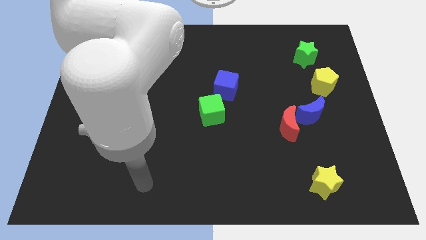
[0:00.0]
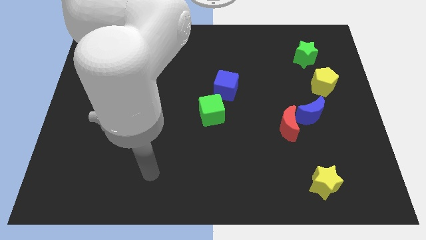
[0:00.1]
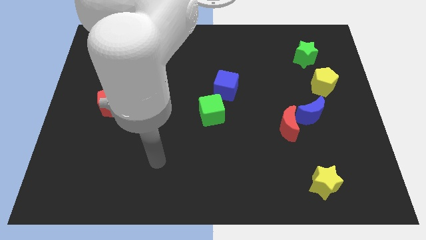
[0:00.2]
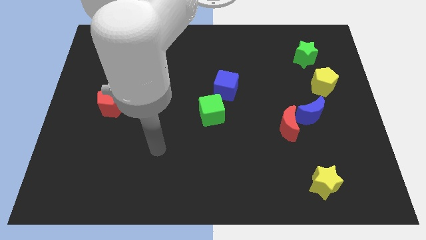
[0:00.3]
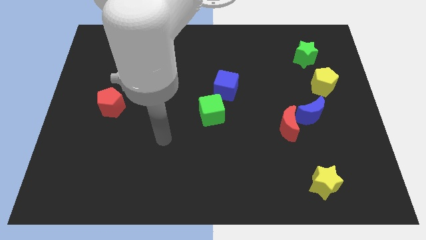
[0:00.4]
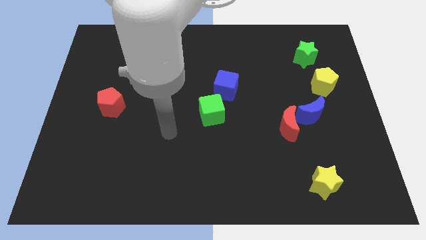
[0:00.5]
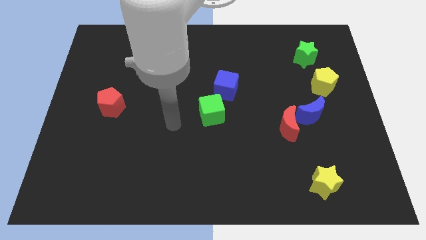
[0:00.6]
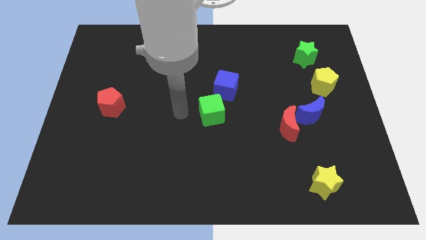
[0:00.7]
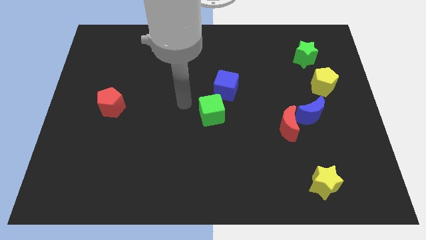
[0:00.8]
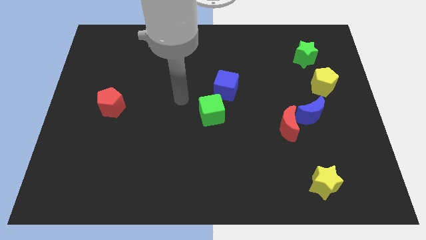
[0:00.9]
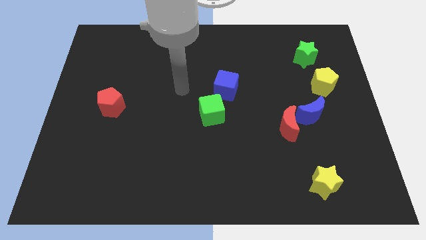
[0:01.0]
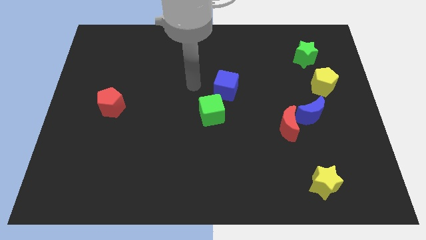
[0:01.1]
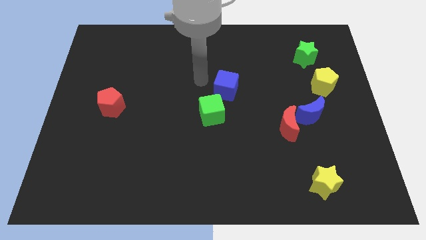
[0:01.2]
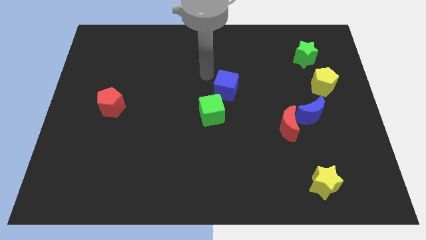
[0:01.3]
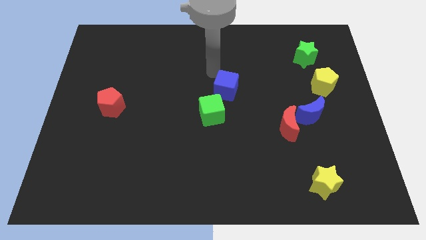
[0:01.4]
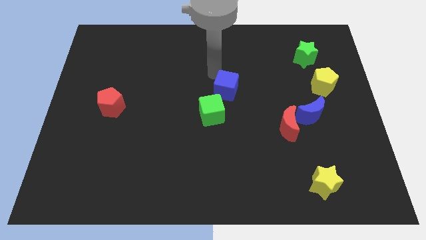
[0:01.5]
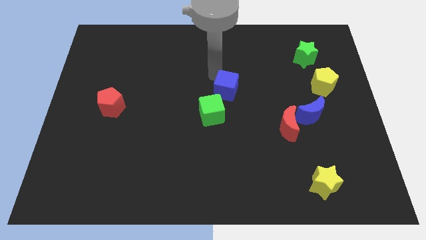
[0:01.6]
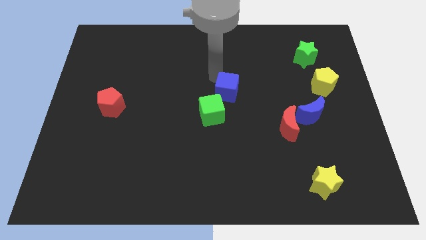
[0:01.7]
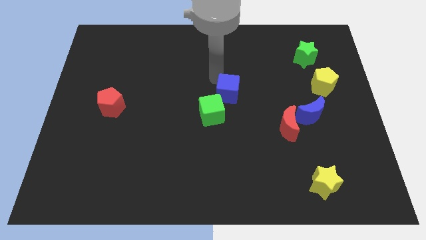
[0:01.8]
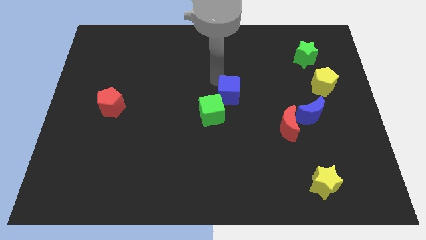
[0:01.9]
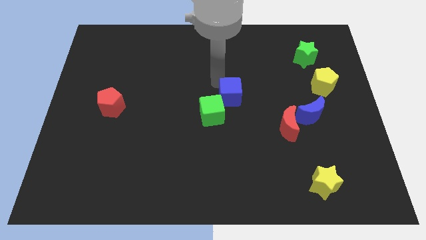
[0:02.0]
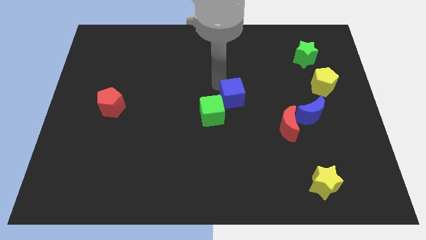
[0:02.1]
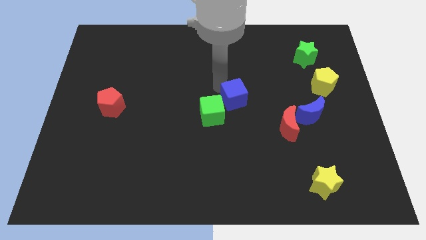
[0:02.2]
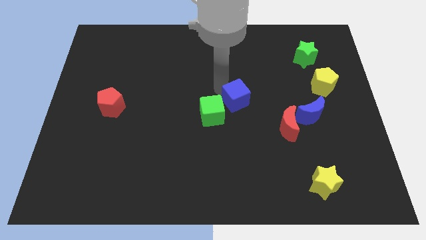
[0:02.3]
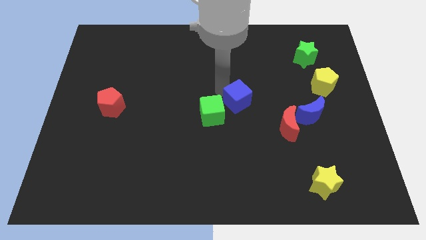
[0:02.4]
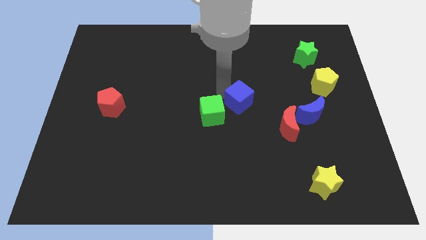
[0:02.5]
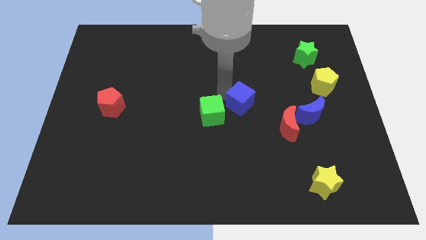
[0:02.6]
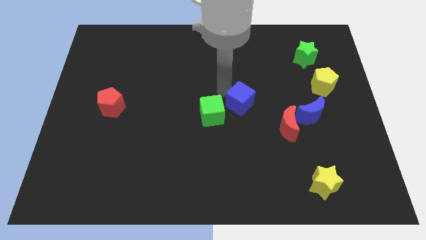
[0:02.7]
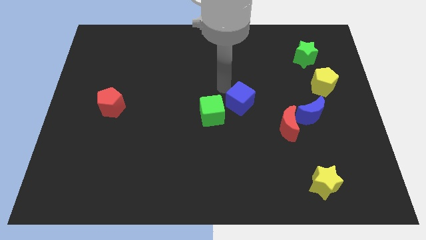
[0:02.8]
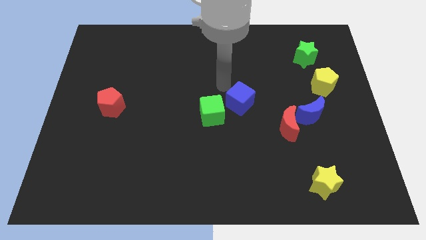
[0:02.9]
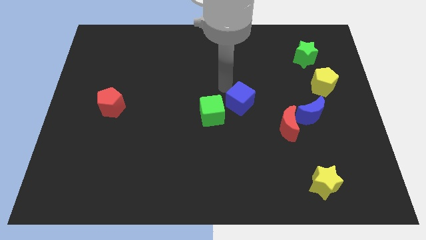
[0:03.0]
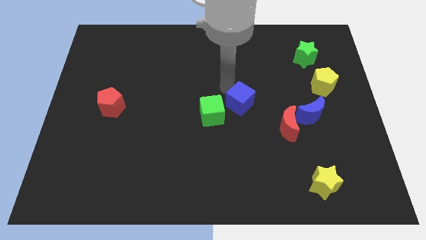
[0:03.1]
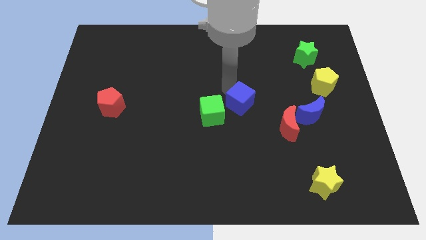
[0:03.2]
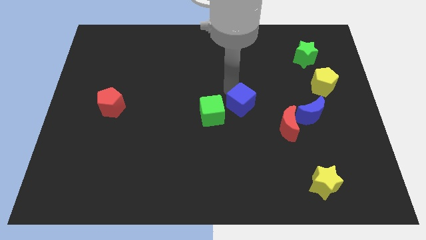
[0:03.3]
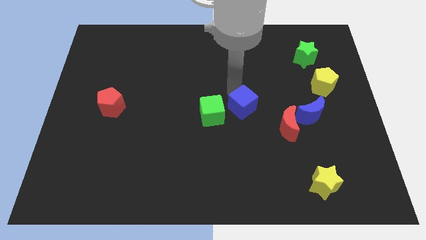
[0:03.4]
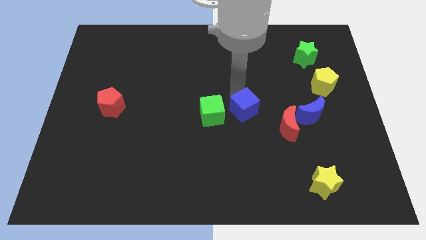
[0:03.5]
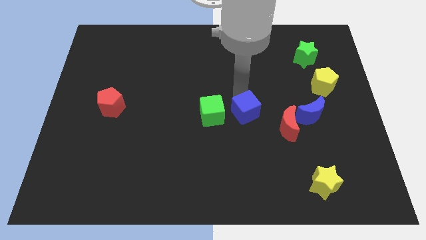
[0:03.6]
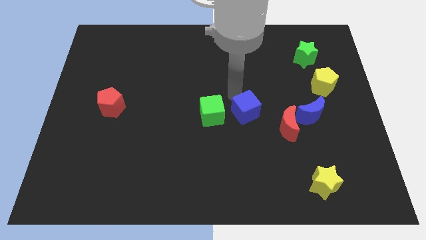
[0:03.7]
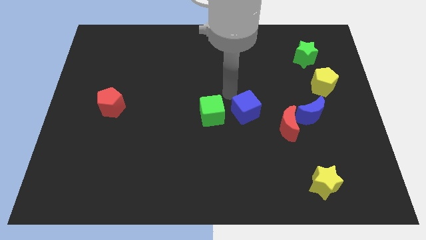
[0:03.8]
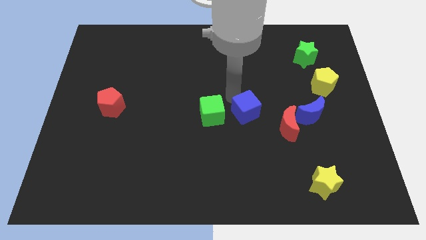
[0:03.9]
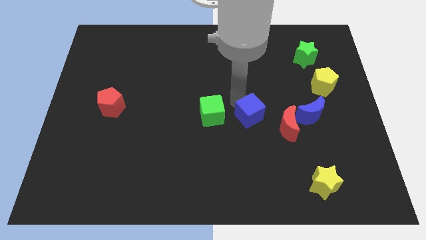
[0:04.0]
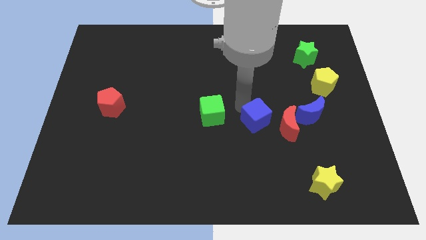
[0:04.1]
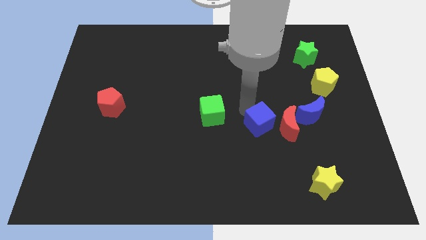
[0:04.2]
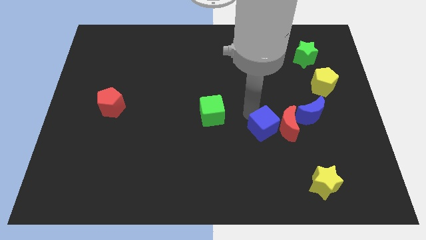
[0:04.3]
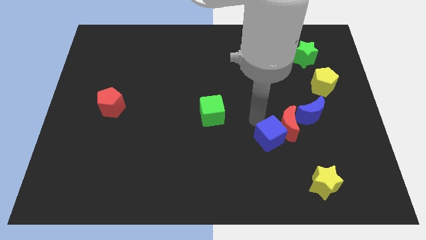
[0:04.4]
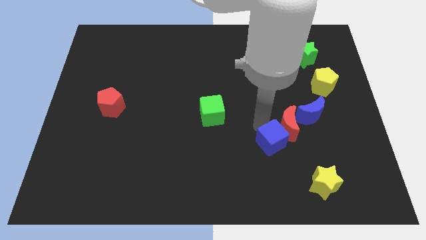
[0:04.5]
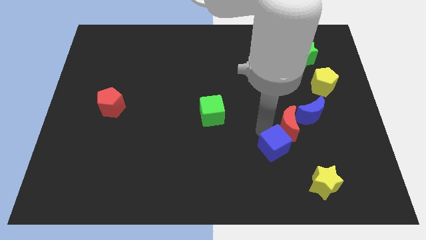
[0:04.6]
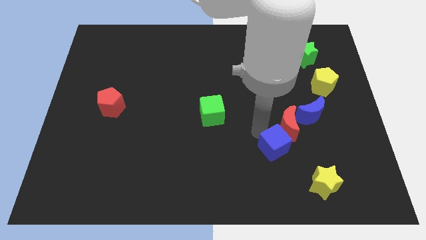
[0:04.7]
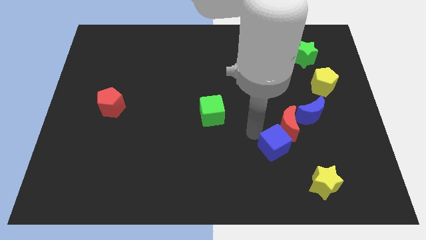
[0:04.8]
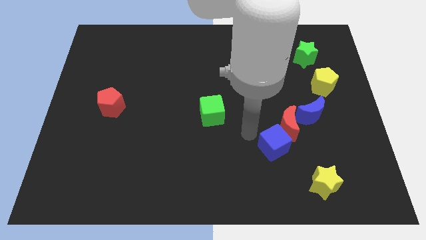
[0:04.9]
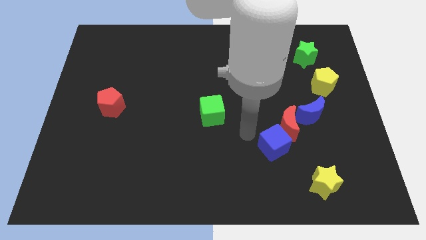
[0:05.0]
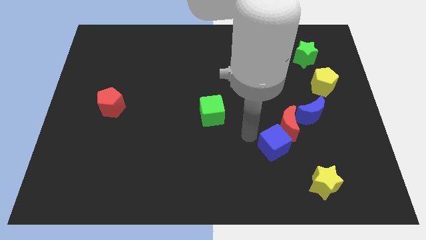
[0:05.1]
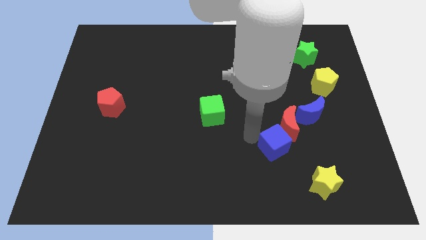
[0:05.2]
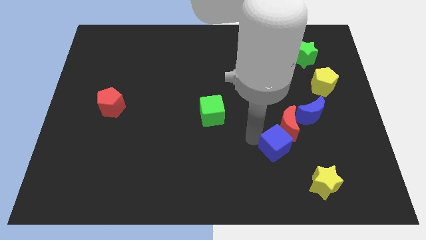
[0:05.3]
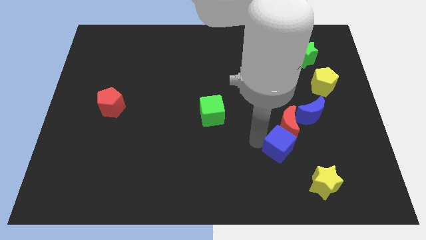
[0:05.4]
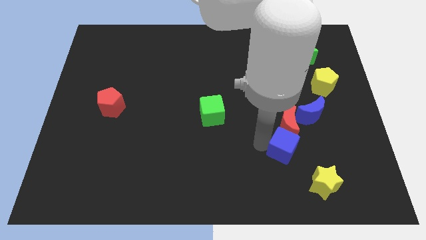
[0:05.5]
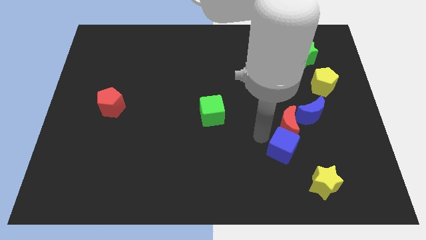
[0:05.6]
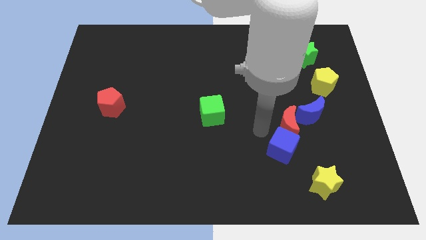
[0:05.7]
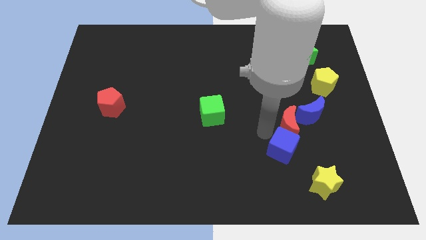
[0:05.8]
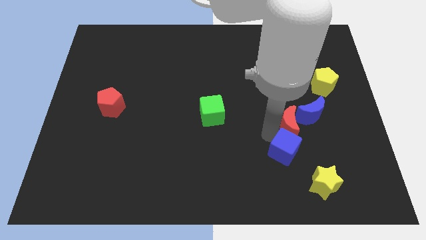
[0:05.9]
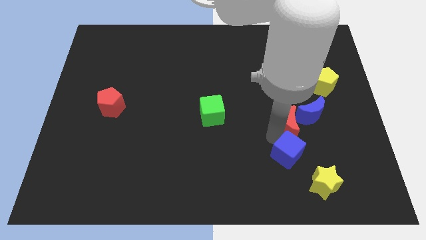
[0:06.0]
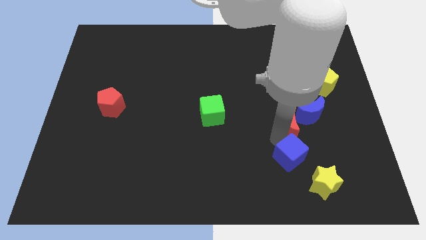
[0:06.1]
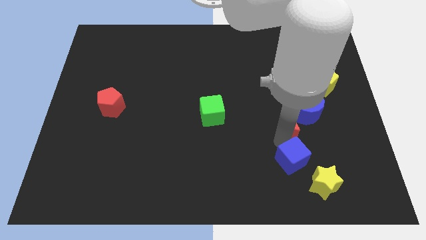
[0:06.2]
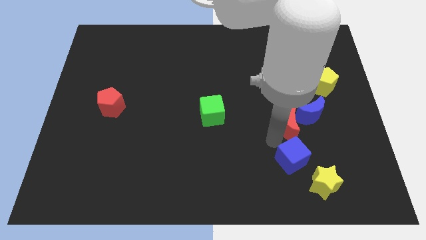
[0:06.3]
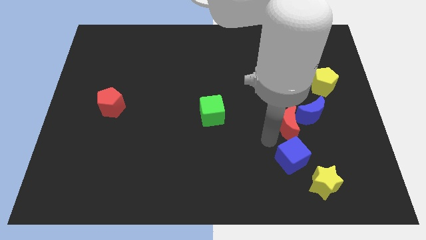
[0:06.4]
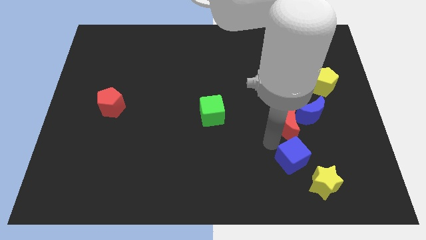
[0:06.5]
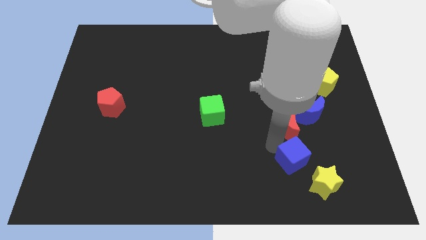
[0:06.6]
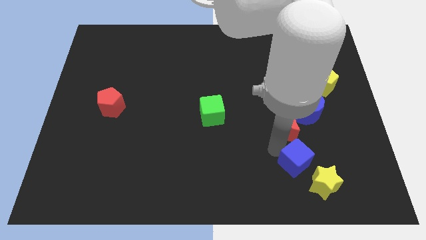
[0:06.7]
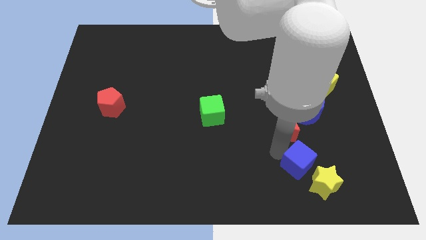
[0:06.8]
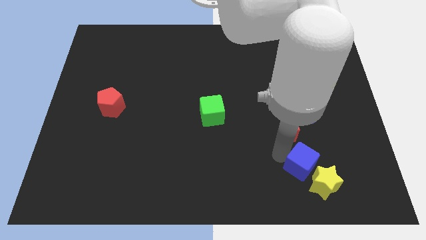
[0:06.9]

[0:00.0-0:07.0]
put the blue cube towards the yellow star

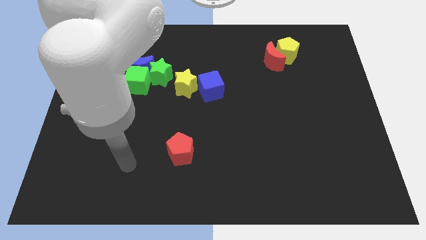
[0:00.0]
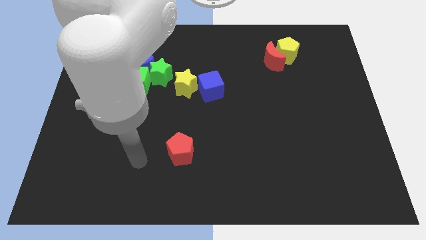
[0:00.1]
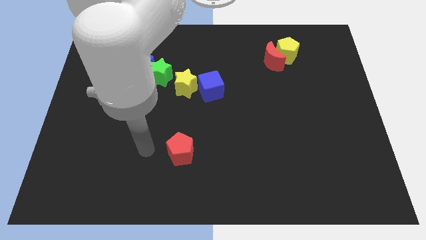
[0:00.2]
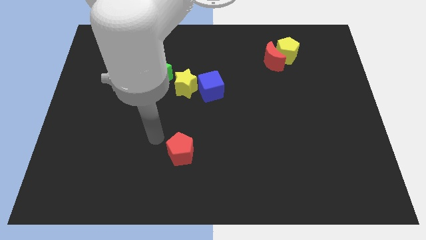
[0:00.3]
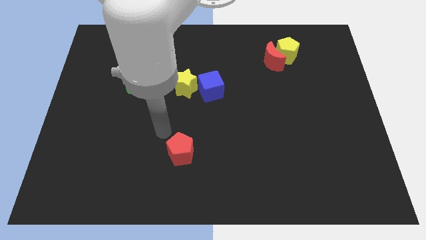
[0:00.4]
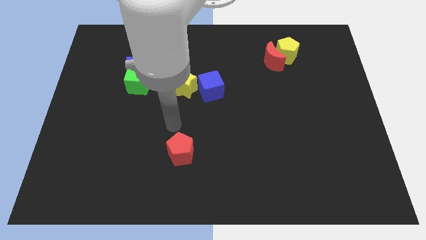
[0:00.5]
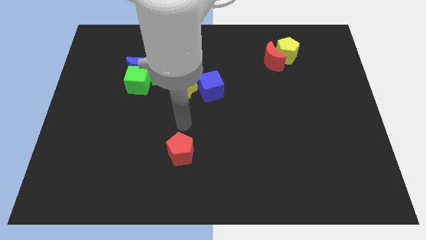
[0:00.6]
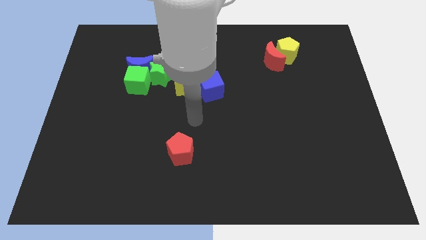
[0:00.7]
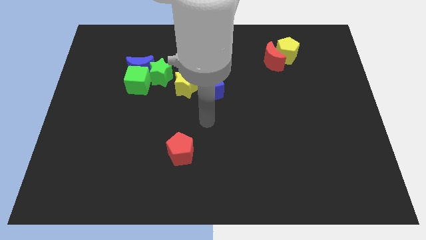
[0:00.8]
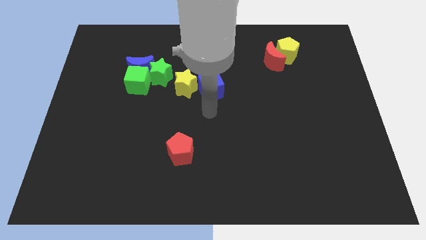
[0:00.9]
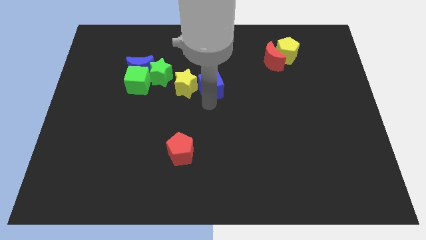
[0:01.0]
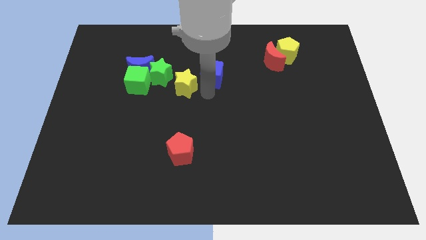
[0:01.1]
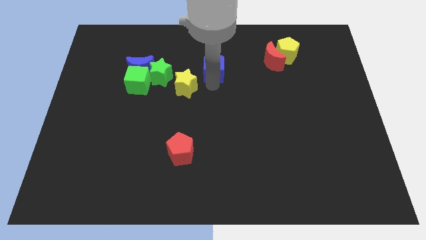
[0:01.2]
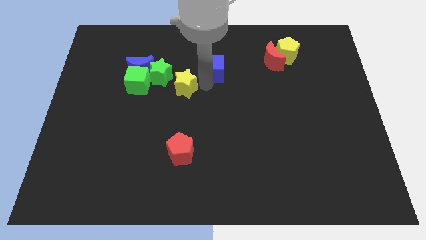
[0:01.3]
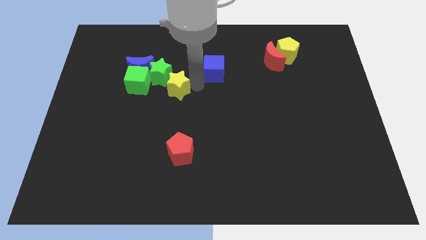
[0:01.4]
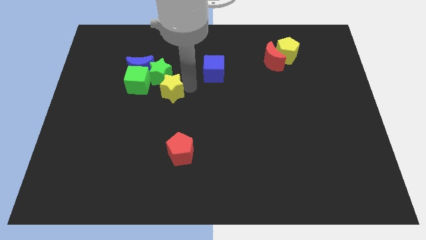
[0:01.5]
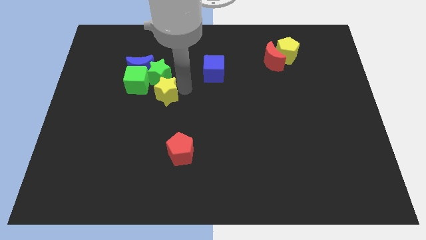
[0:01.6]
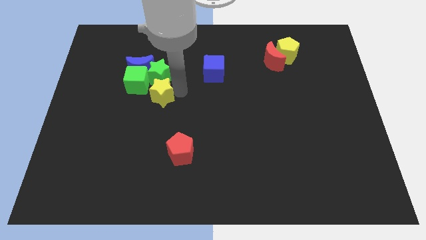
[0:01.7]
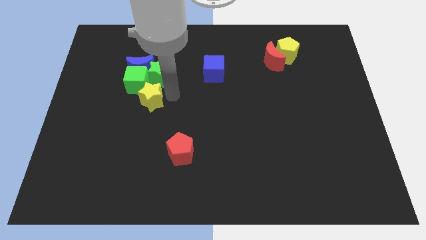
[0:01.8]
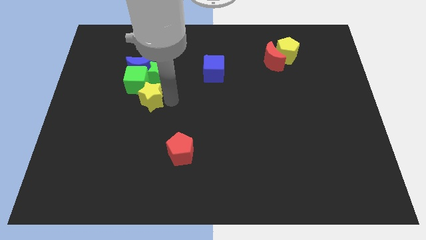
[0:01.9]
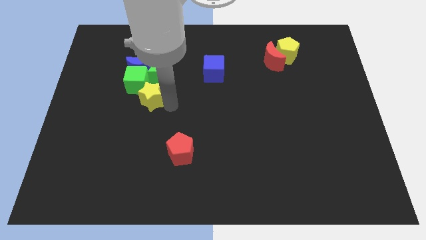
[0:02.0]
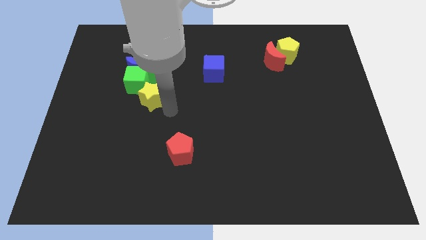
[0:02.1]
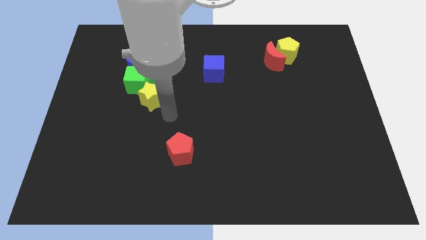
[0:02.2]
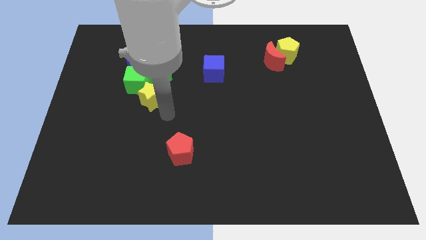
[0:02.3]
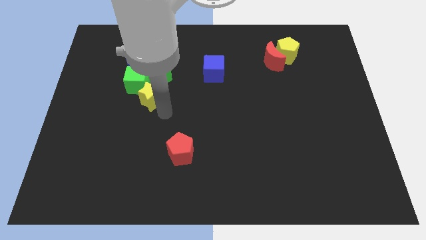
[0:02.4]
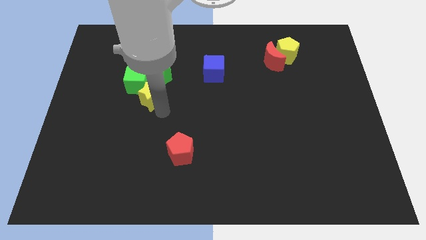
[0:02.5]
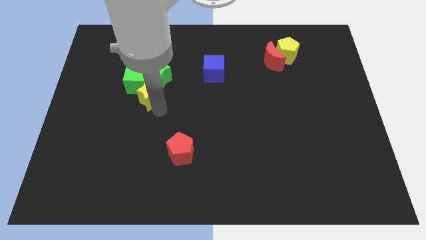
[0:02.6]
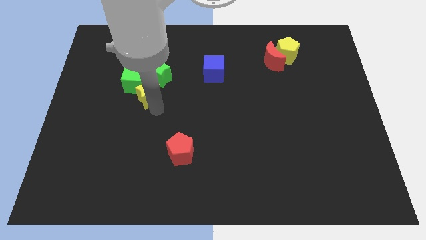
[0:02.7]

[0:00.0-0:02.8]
push the yellow star towards the green cube
